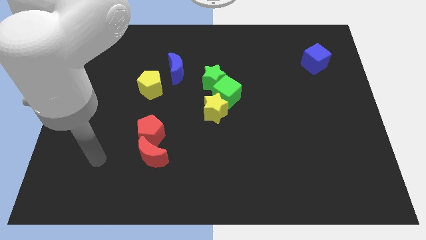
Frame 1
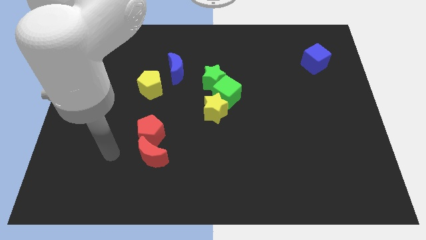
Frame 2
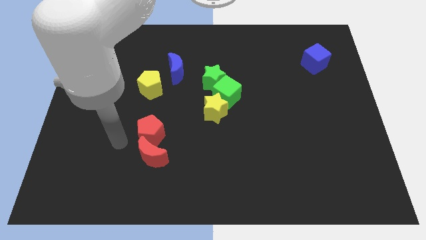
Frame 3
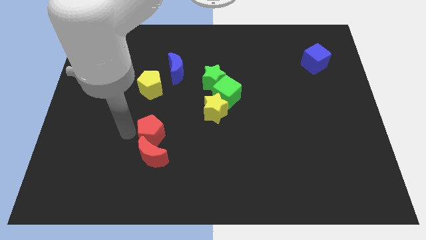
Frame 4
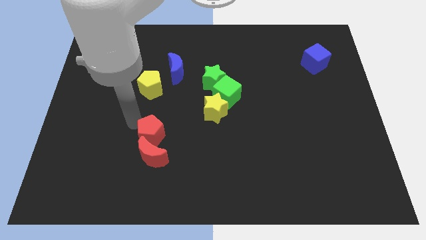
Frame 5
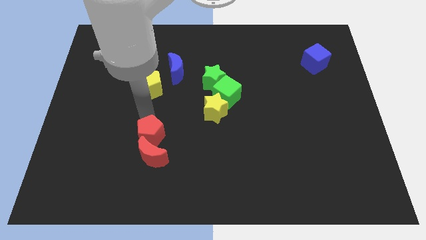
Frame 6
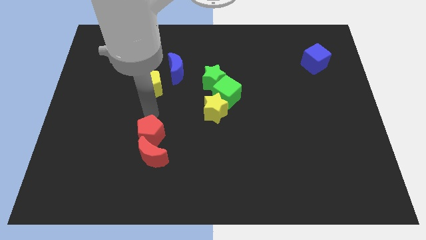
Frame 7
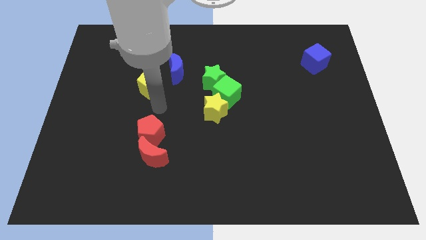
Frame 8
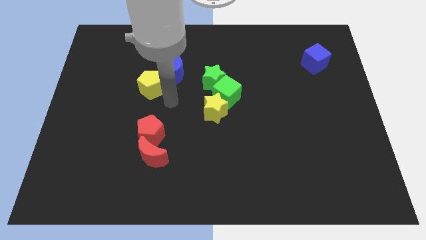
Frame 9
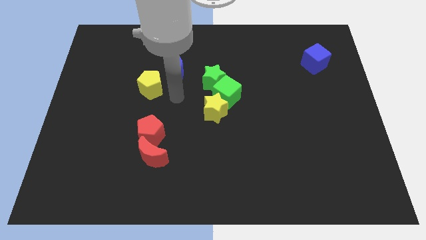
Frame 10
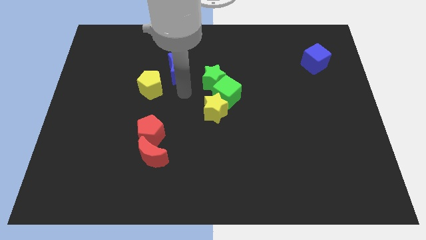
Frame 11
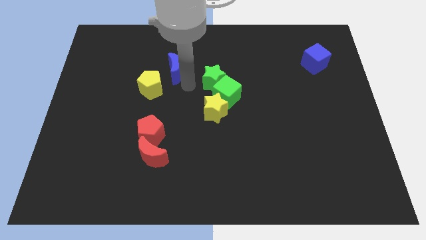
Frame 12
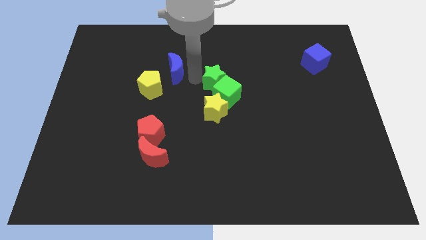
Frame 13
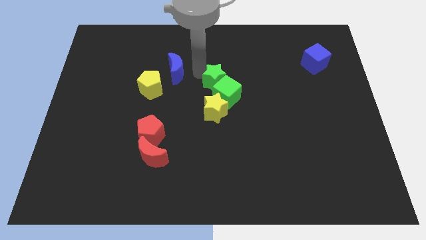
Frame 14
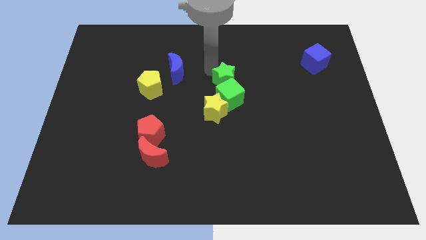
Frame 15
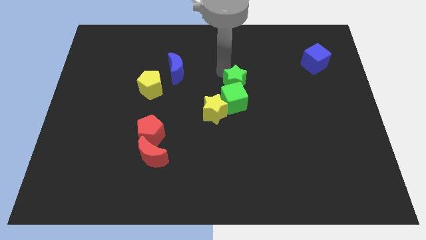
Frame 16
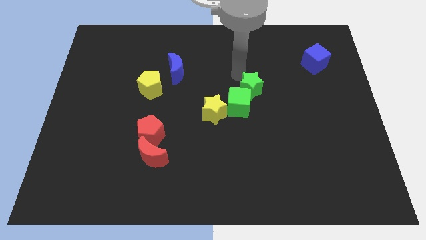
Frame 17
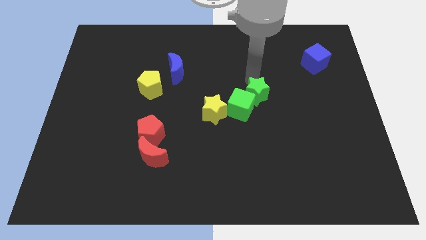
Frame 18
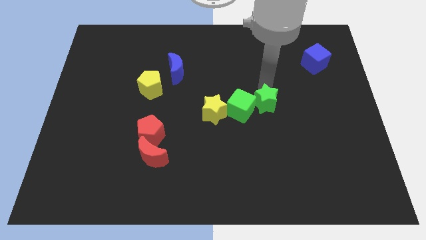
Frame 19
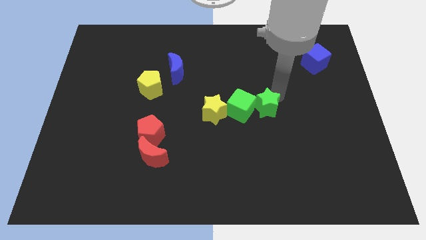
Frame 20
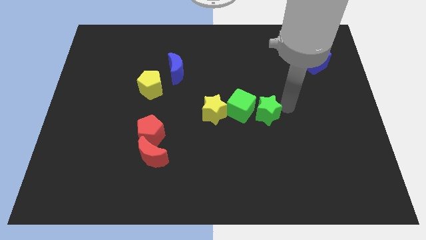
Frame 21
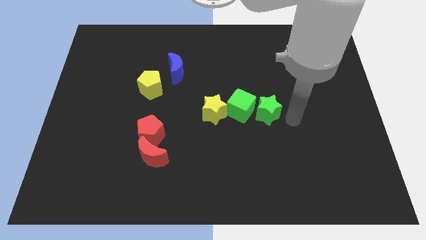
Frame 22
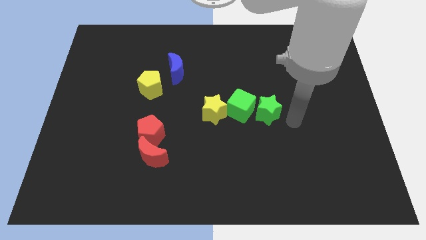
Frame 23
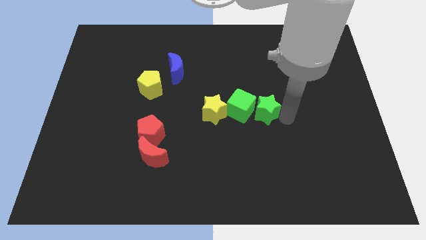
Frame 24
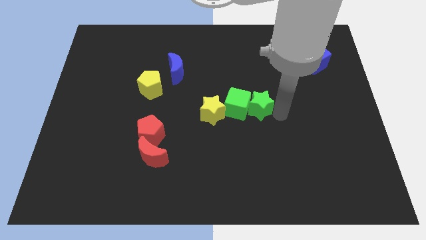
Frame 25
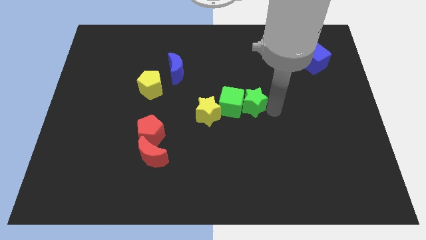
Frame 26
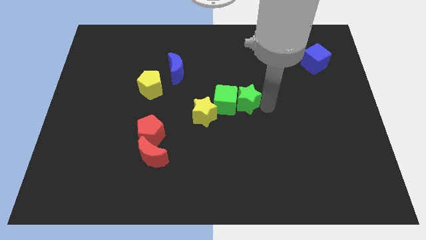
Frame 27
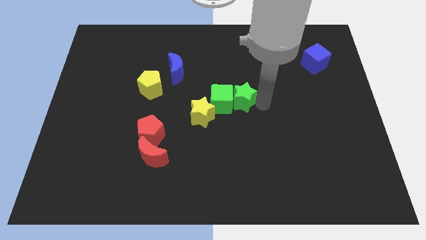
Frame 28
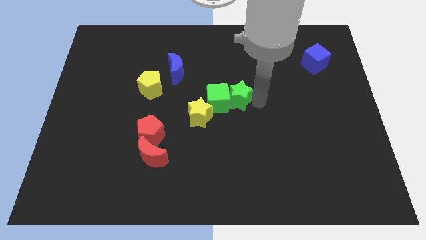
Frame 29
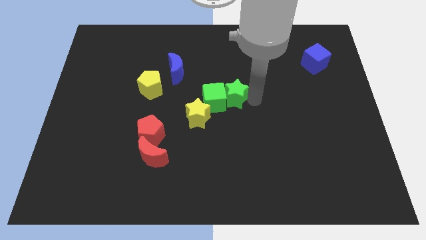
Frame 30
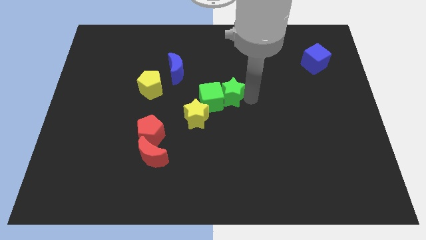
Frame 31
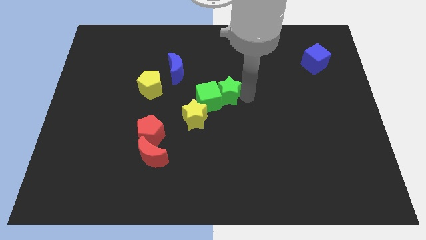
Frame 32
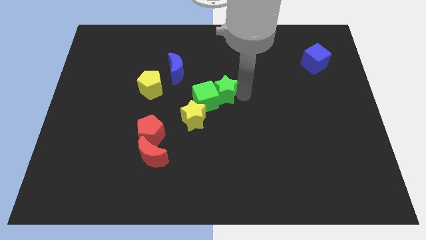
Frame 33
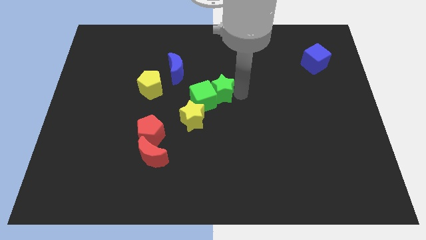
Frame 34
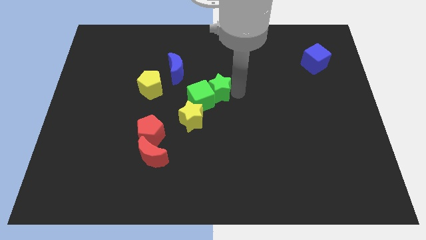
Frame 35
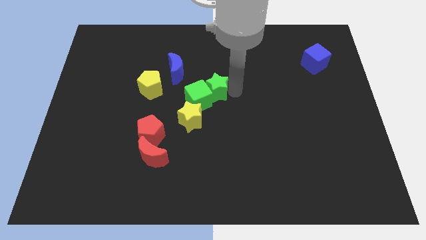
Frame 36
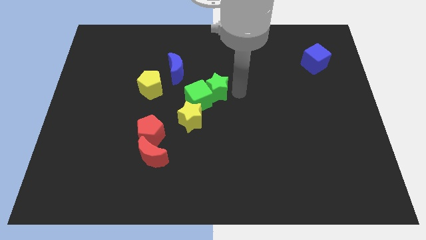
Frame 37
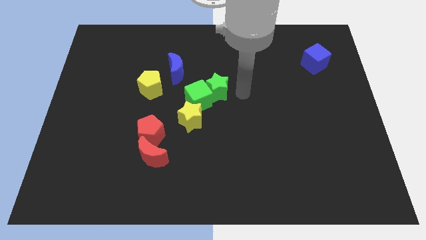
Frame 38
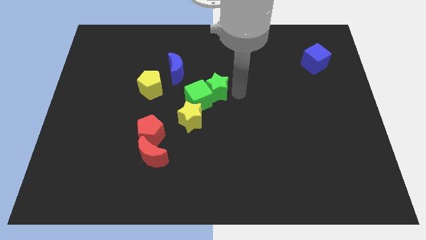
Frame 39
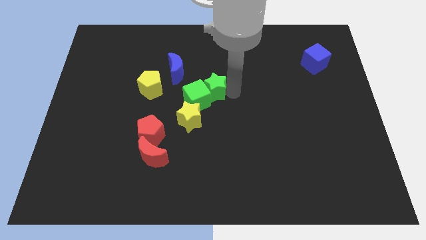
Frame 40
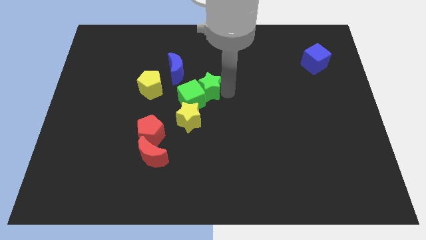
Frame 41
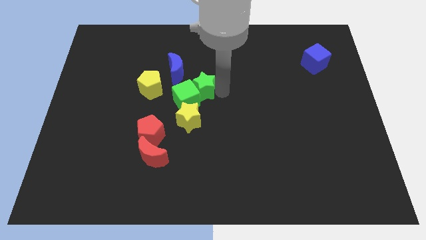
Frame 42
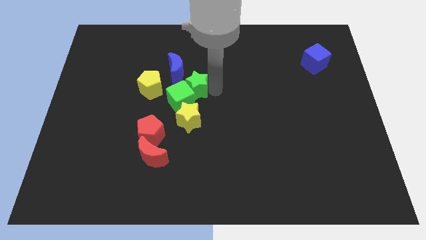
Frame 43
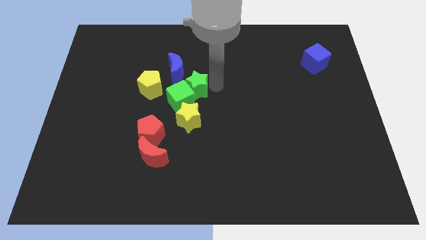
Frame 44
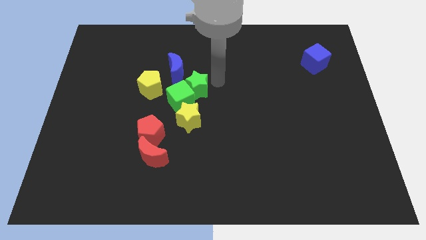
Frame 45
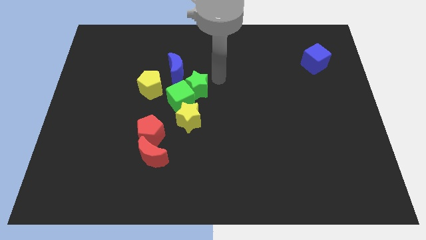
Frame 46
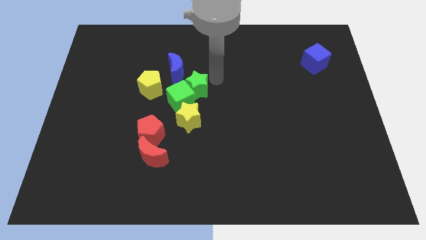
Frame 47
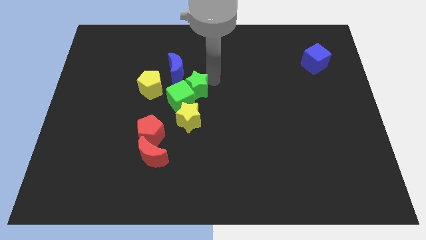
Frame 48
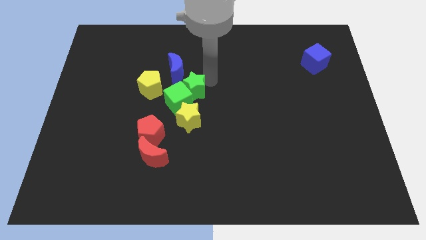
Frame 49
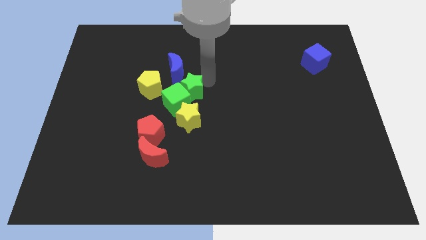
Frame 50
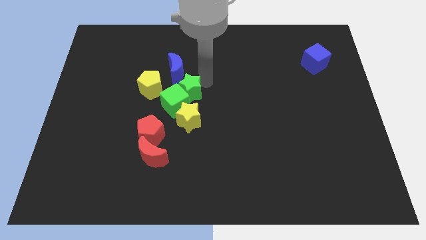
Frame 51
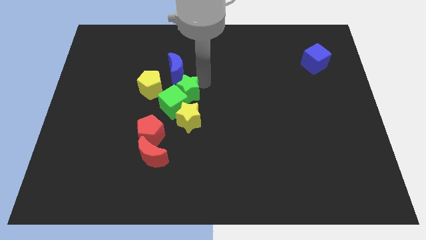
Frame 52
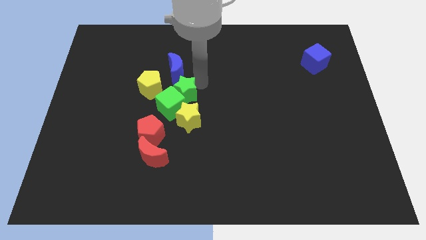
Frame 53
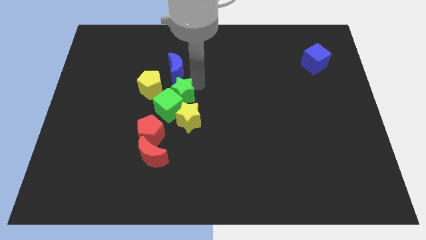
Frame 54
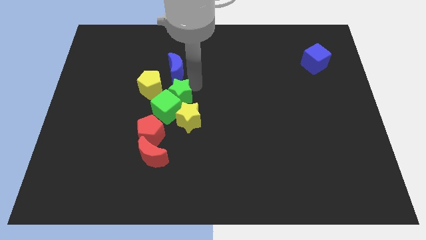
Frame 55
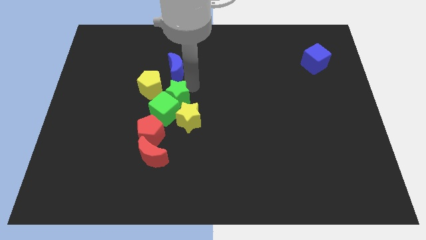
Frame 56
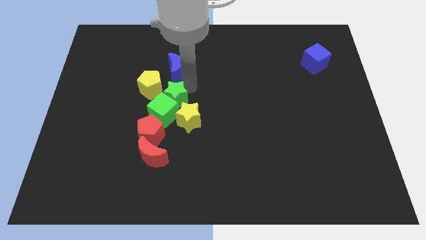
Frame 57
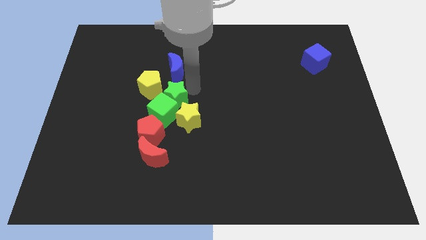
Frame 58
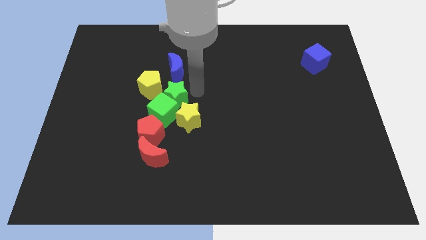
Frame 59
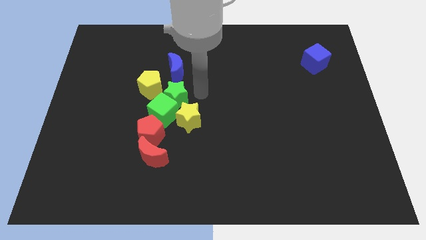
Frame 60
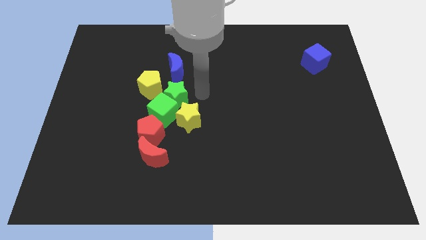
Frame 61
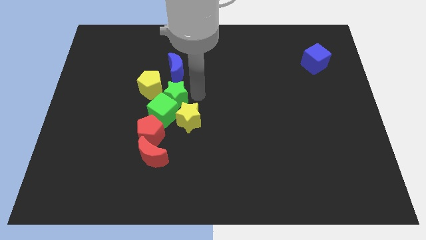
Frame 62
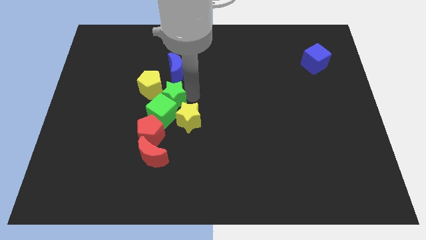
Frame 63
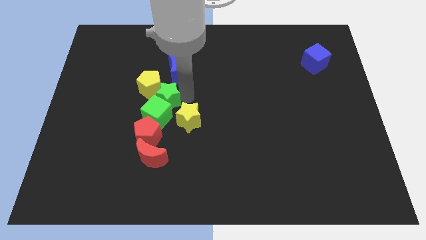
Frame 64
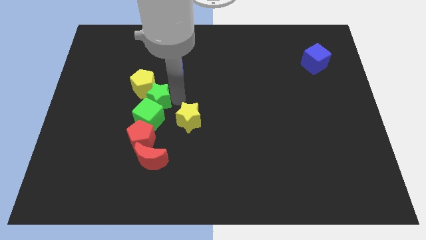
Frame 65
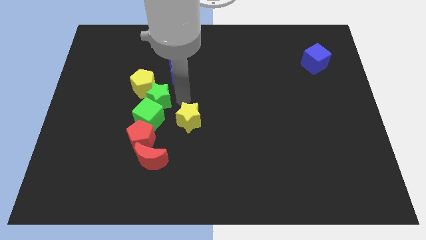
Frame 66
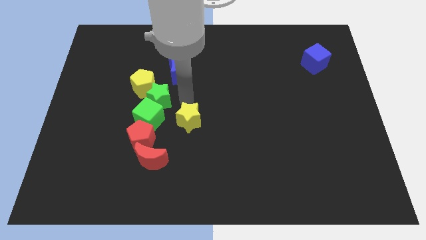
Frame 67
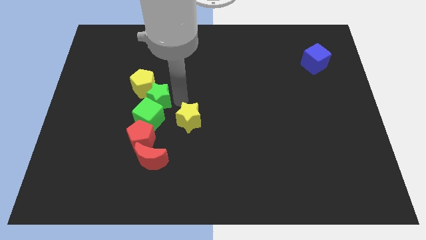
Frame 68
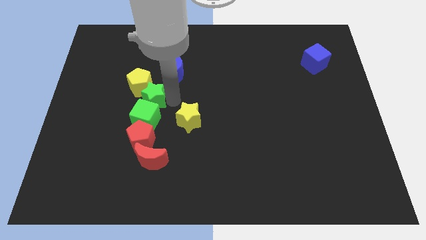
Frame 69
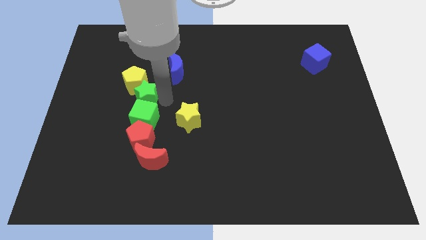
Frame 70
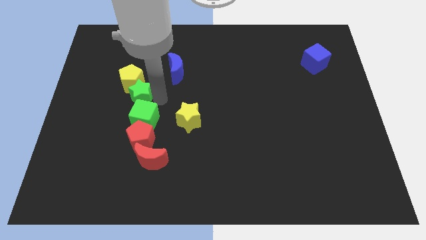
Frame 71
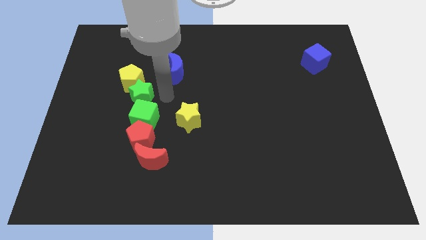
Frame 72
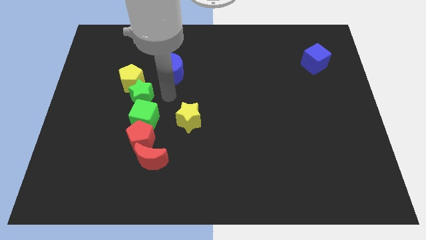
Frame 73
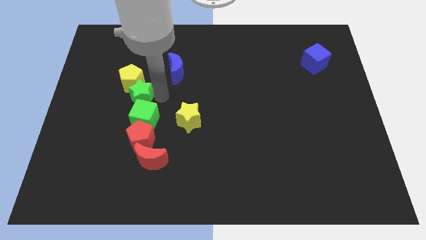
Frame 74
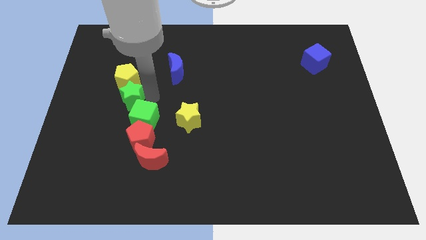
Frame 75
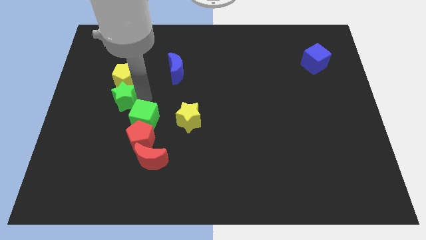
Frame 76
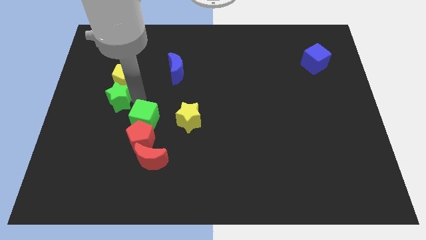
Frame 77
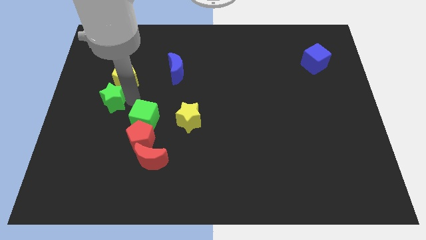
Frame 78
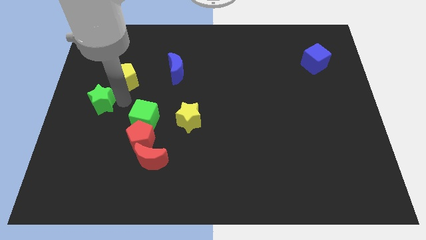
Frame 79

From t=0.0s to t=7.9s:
move the green star to the left side
